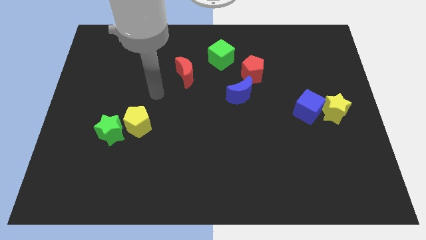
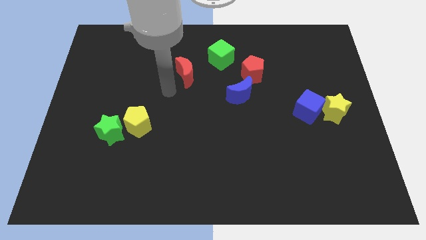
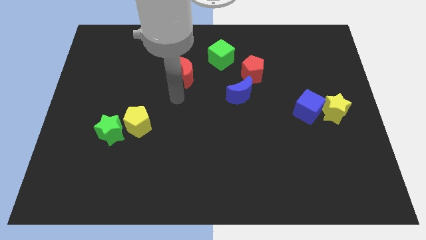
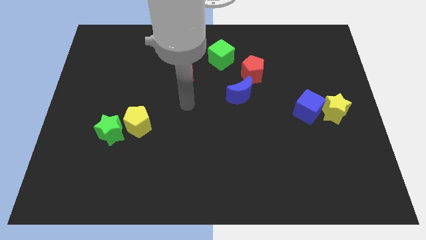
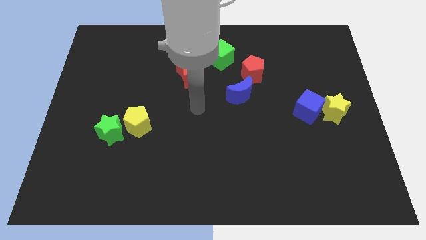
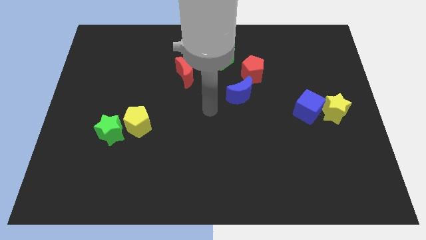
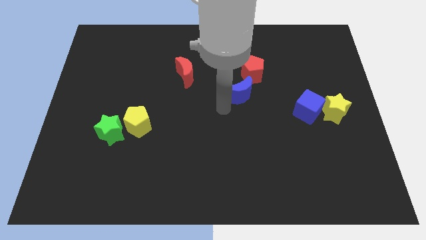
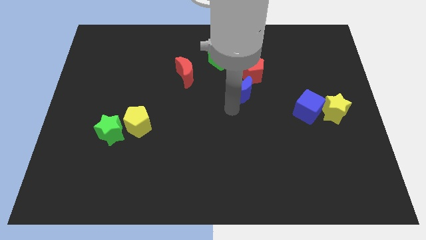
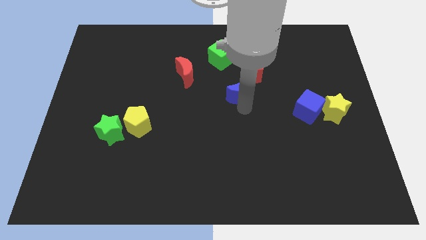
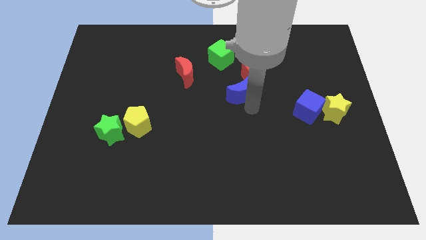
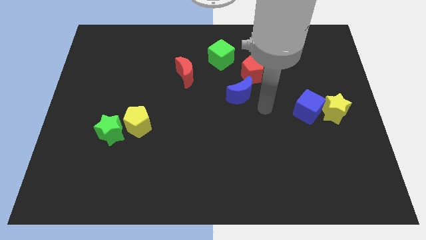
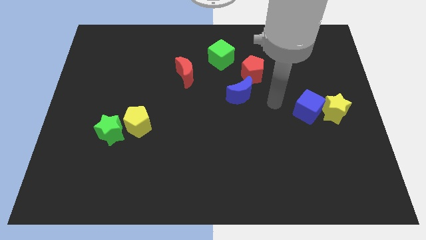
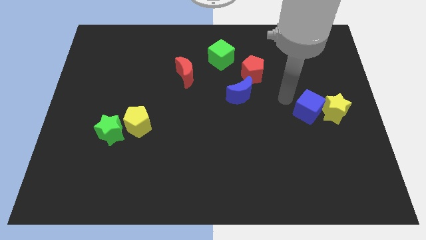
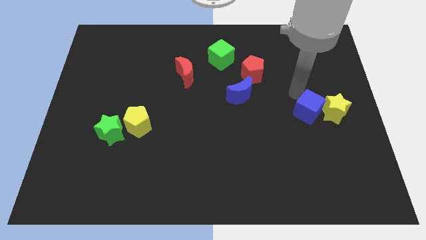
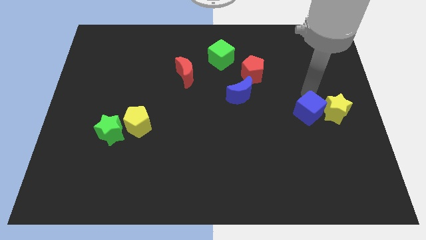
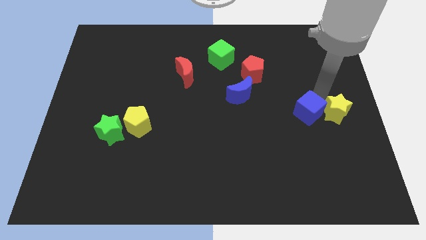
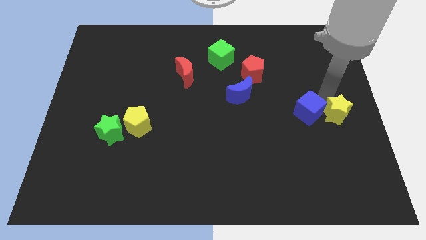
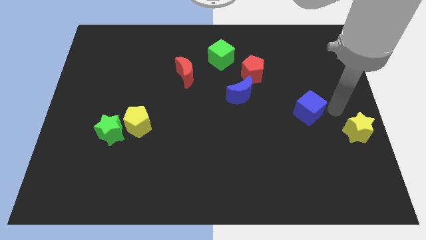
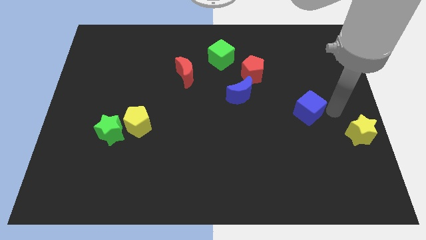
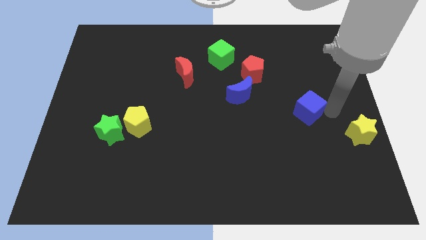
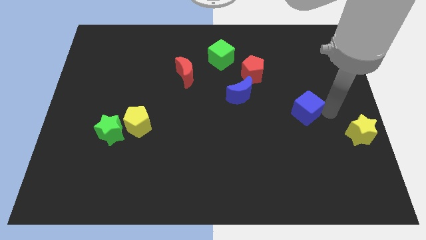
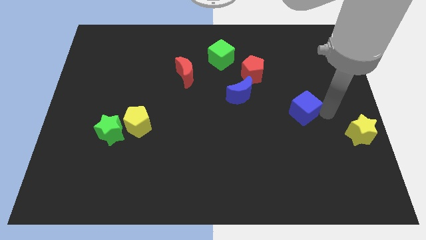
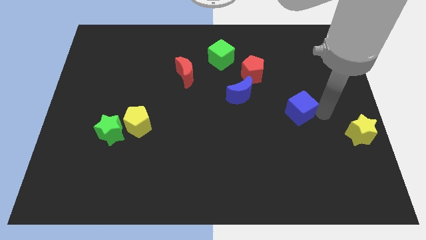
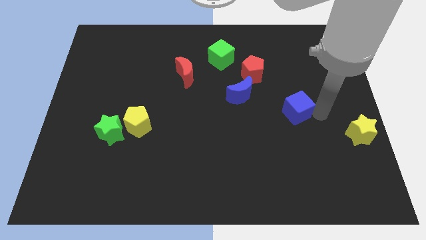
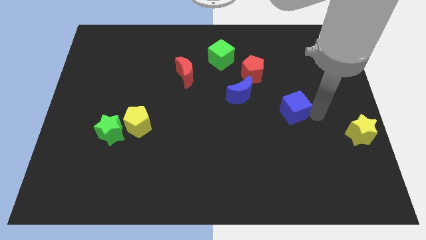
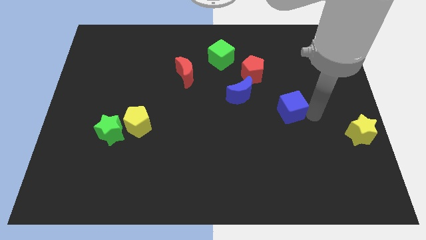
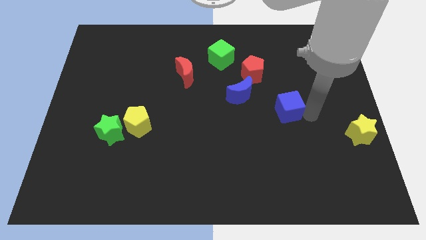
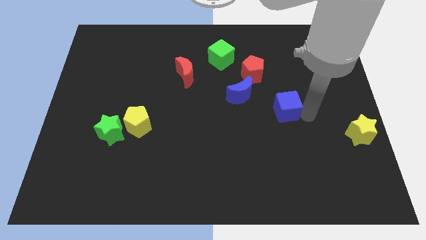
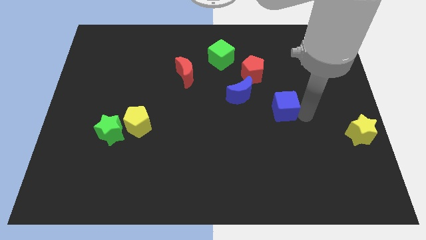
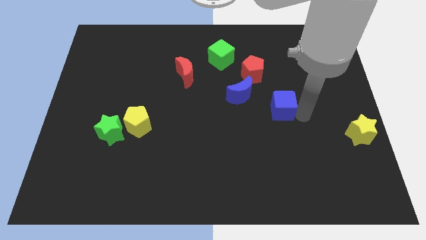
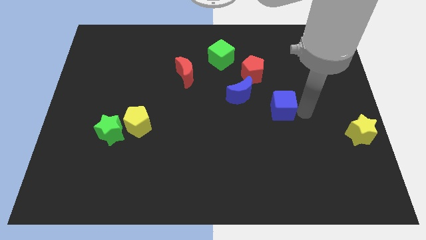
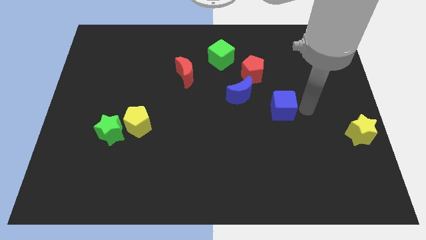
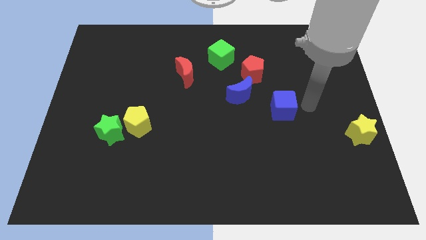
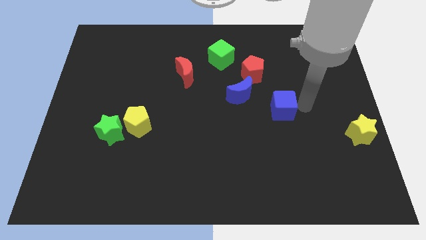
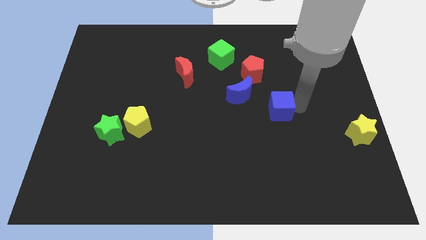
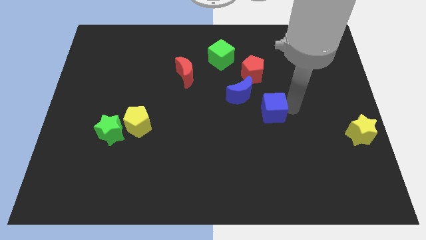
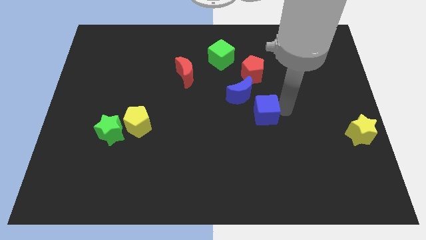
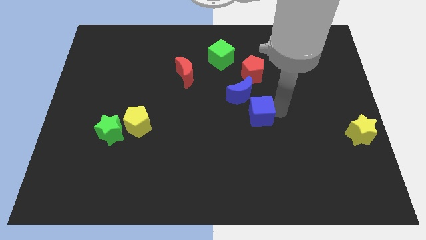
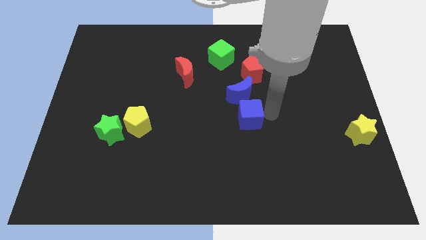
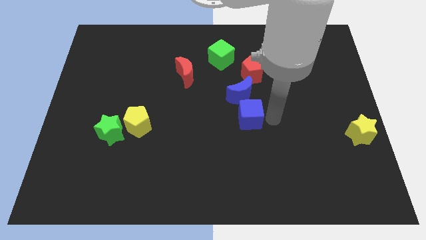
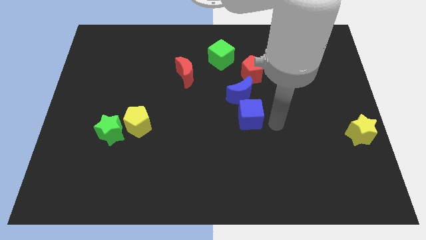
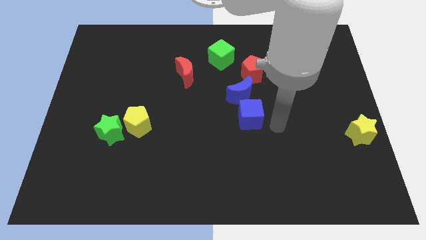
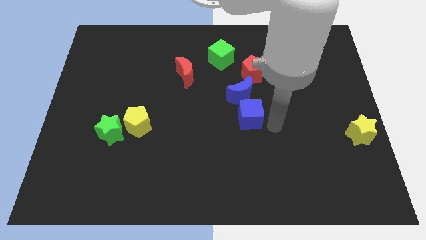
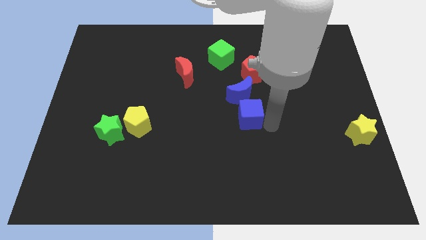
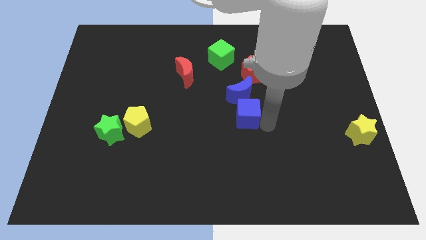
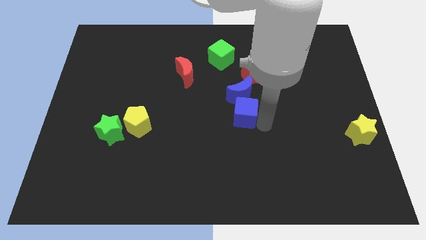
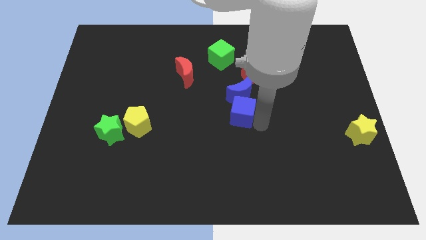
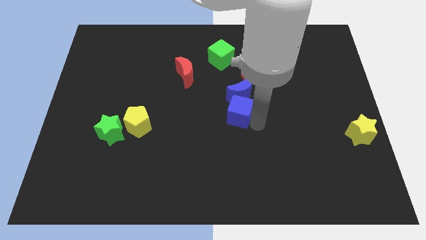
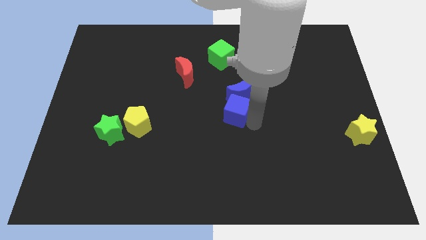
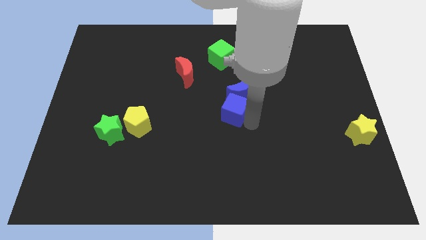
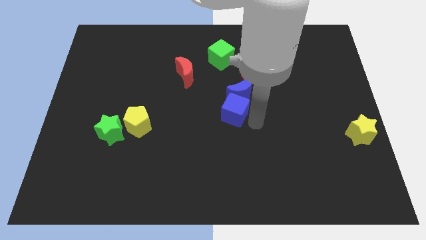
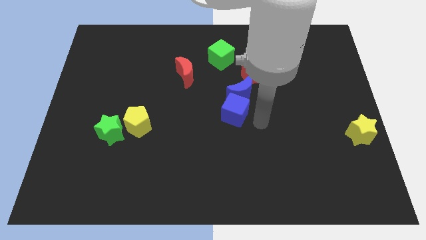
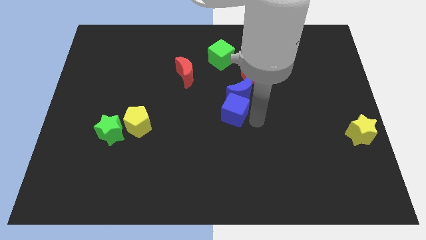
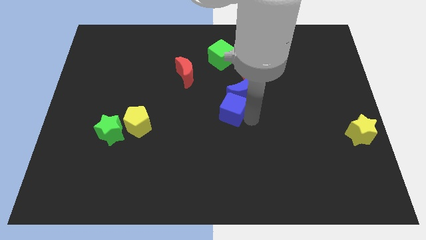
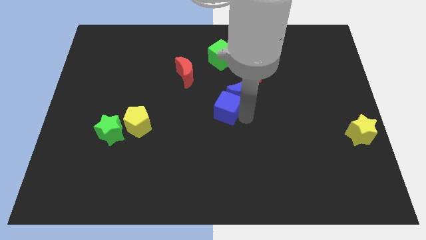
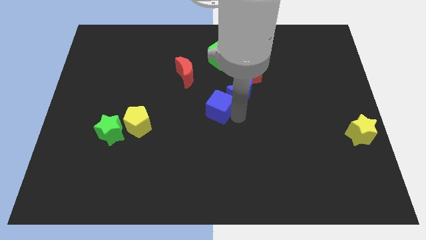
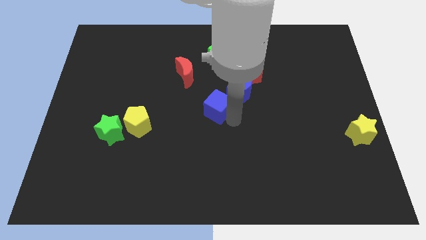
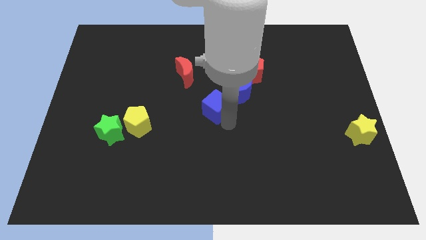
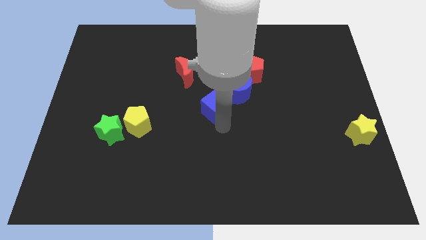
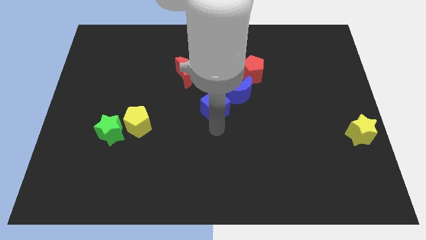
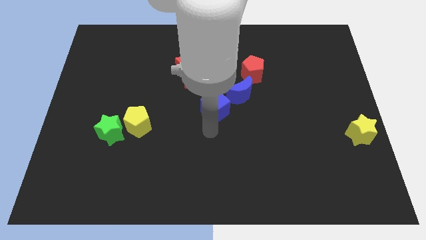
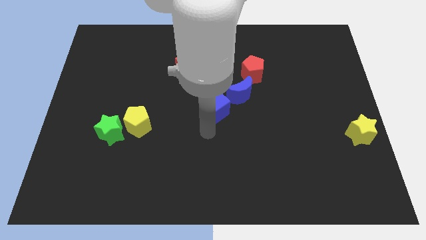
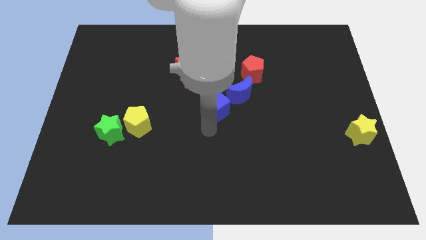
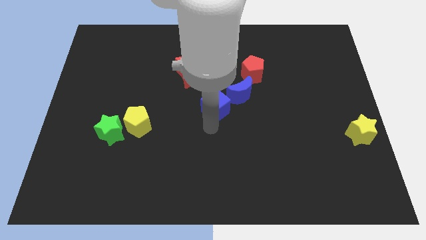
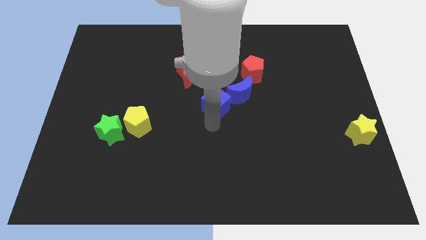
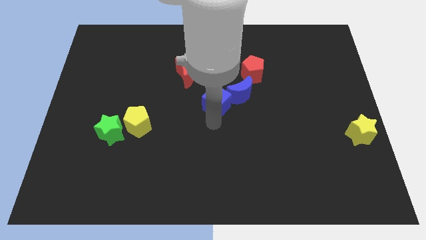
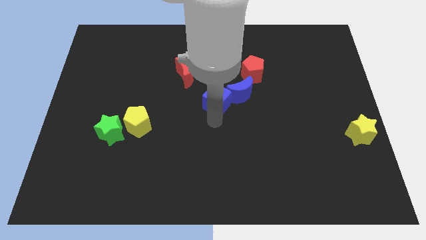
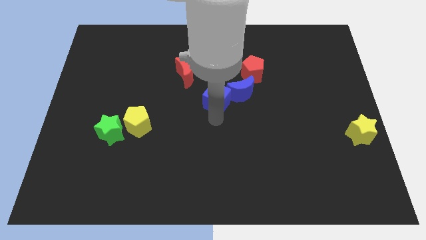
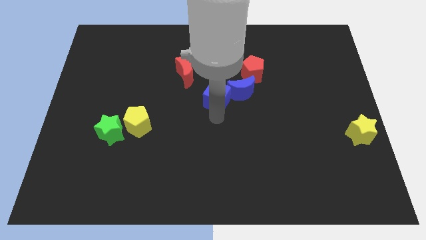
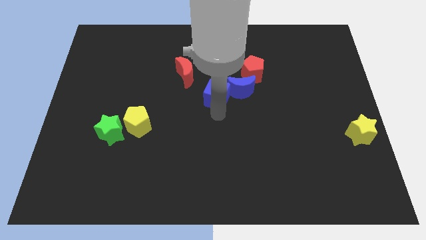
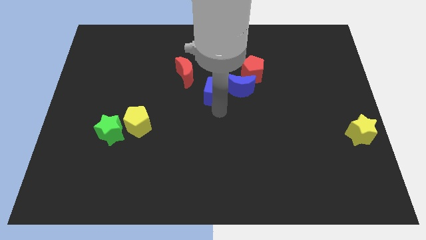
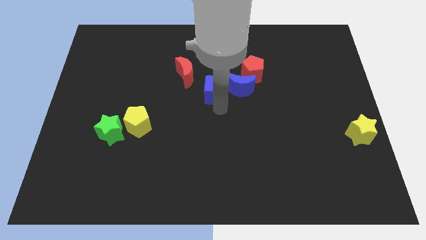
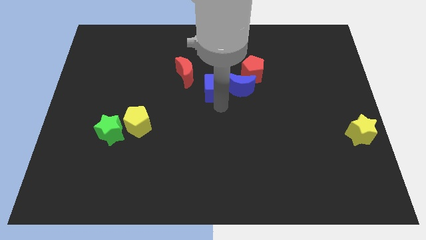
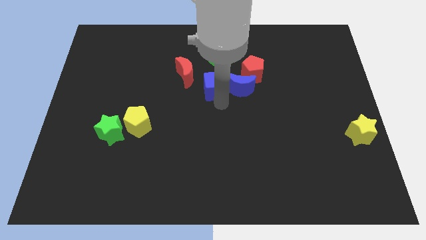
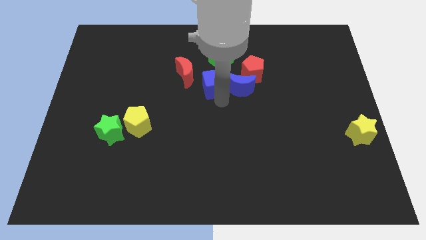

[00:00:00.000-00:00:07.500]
move the blue cube left of the red pentagon

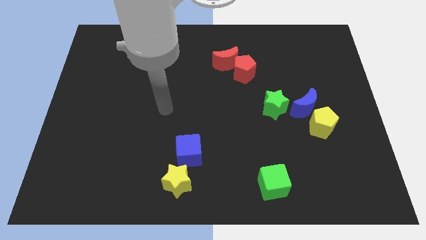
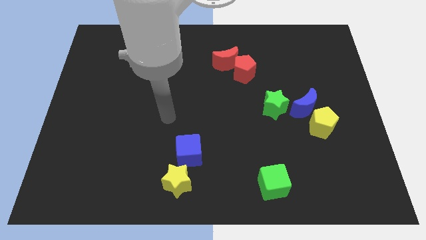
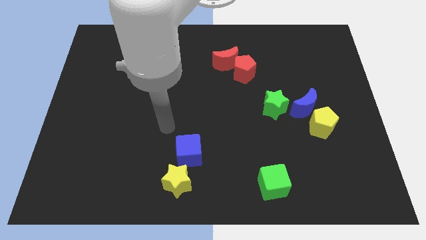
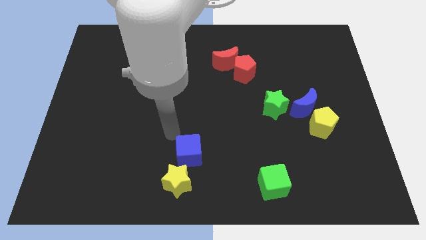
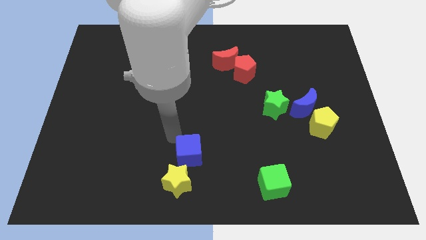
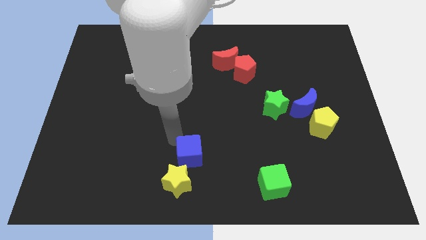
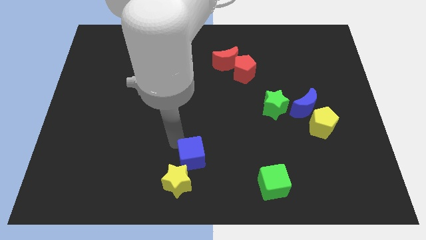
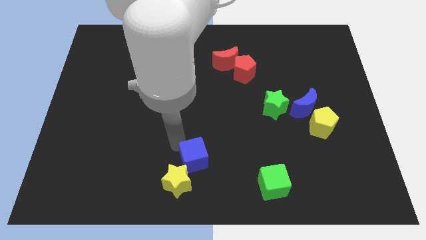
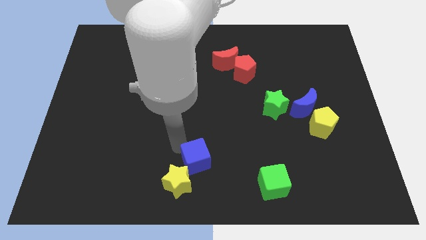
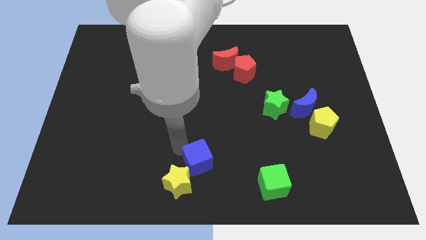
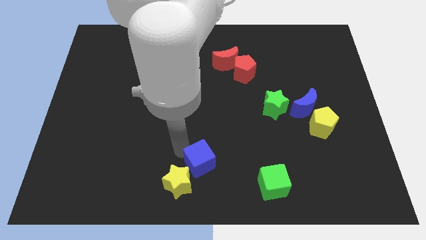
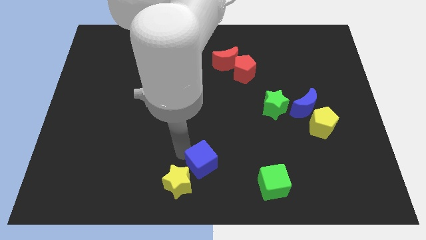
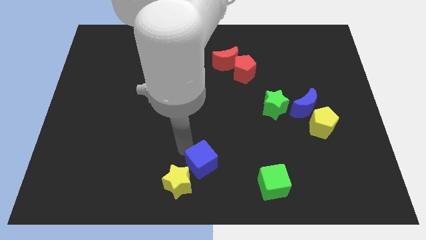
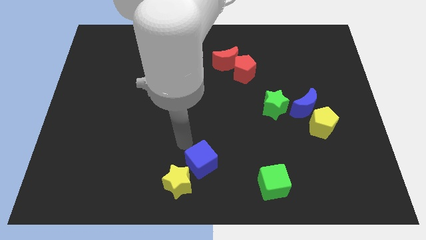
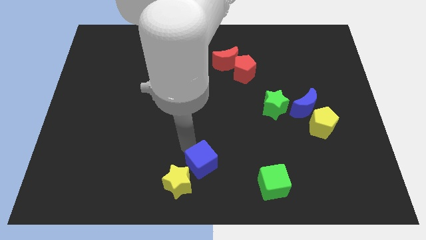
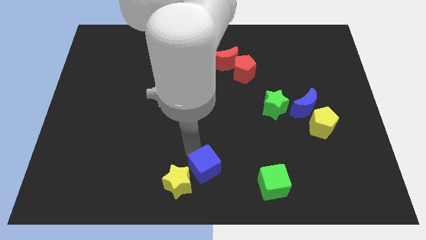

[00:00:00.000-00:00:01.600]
put the blue cube left of the green cube
